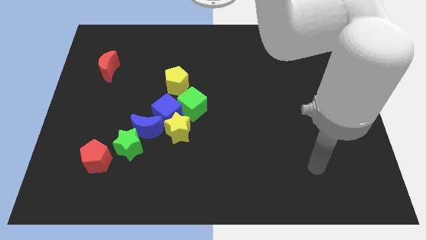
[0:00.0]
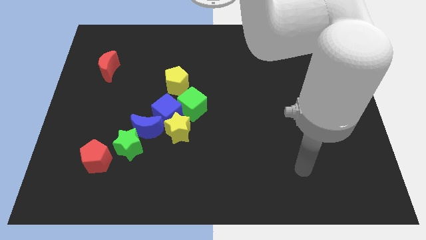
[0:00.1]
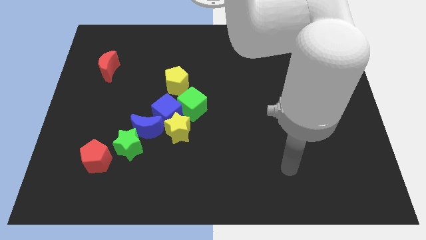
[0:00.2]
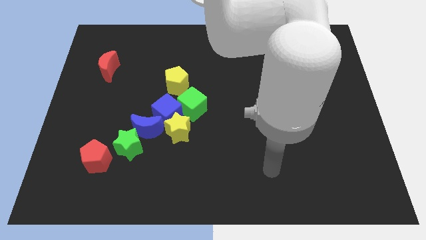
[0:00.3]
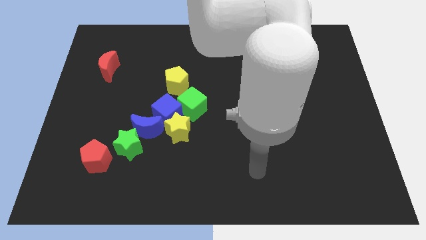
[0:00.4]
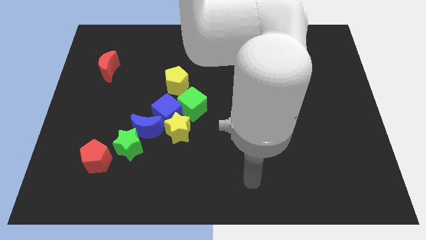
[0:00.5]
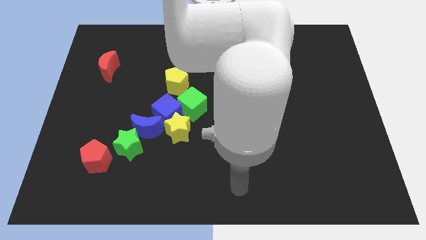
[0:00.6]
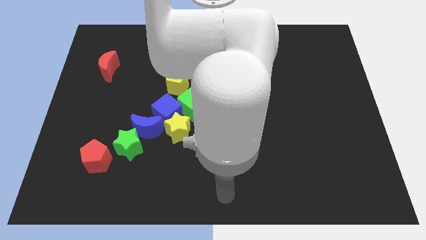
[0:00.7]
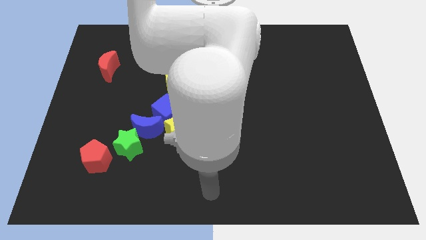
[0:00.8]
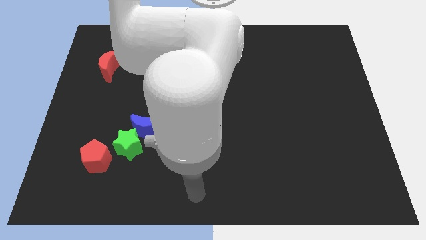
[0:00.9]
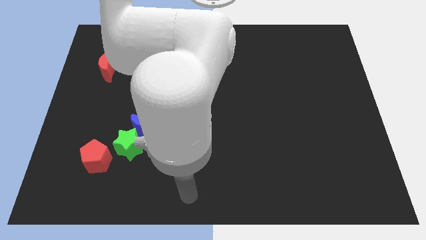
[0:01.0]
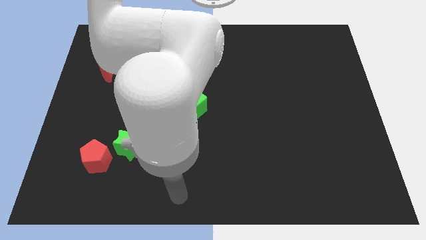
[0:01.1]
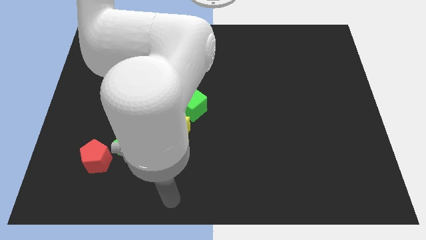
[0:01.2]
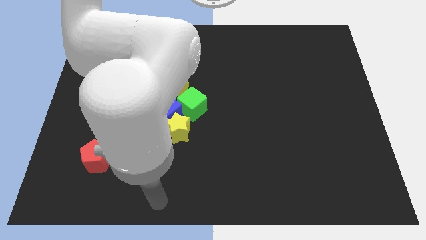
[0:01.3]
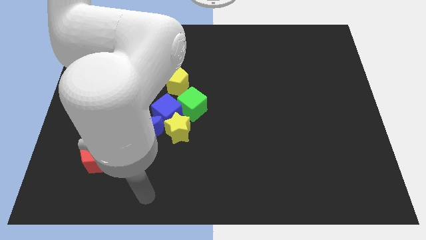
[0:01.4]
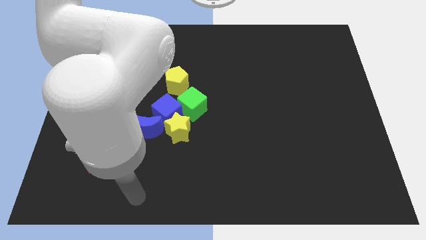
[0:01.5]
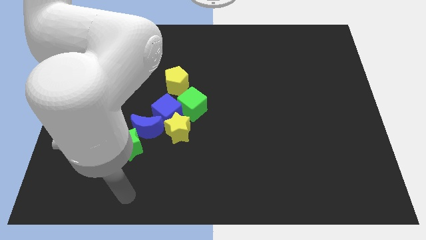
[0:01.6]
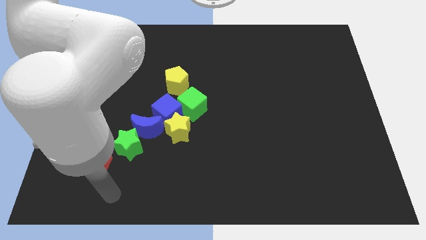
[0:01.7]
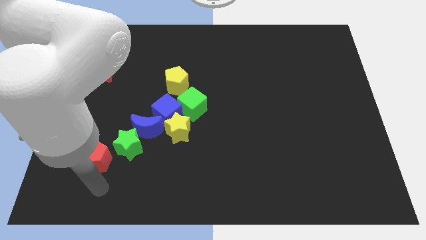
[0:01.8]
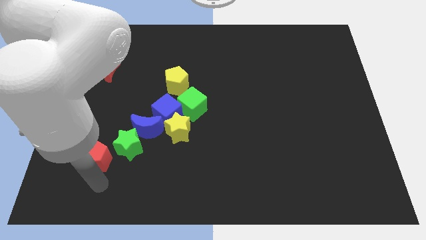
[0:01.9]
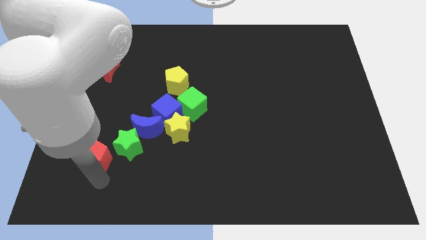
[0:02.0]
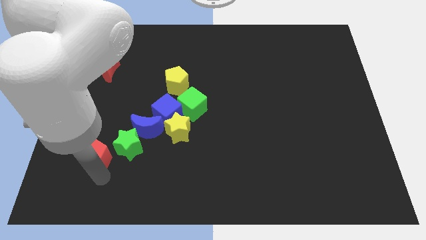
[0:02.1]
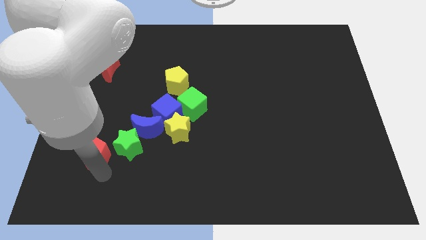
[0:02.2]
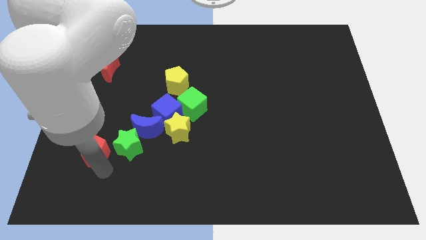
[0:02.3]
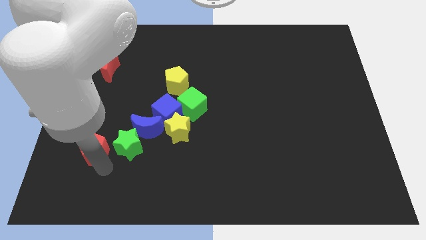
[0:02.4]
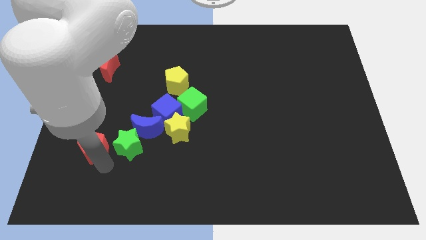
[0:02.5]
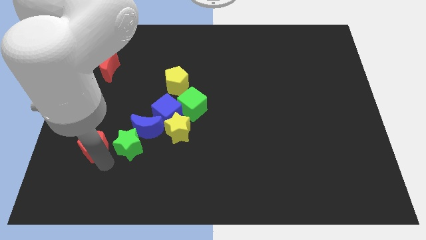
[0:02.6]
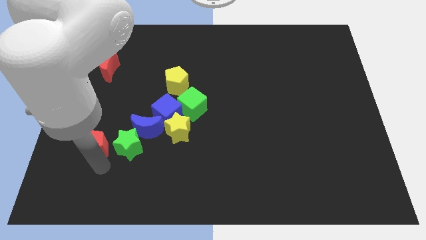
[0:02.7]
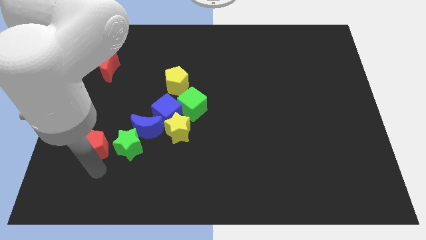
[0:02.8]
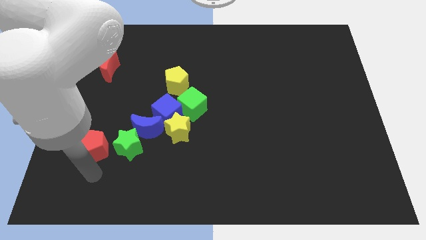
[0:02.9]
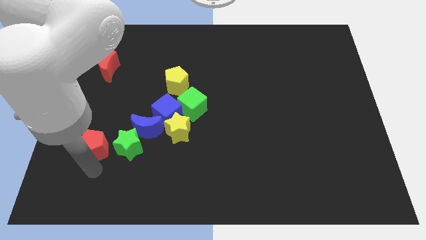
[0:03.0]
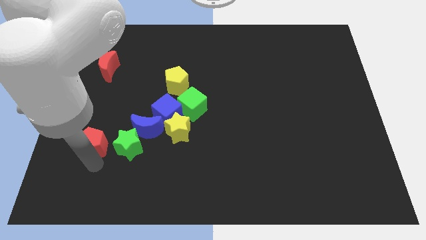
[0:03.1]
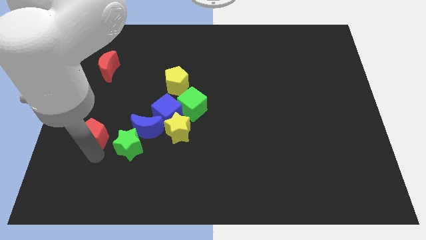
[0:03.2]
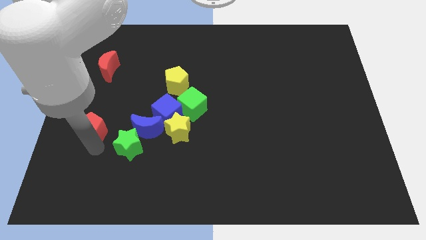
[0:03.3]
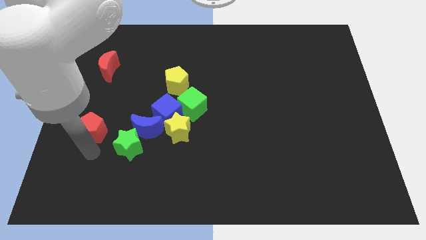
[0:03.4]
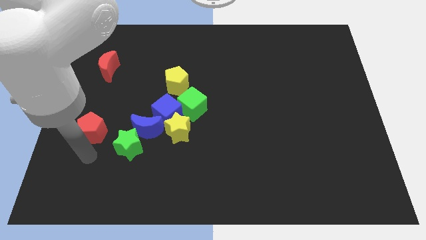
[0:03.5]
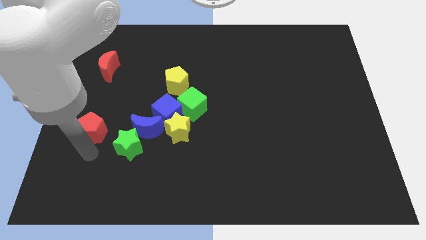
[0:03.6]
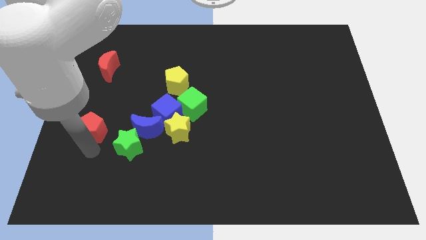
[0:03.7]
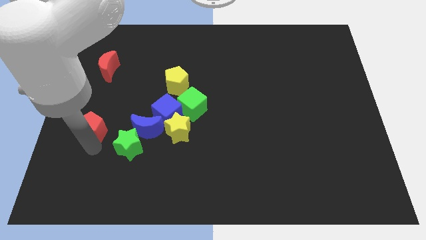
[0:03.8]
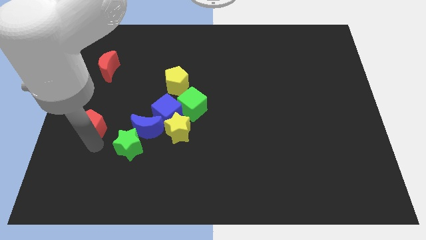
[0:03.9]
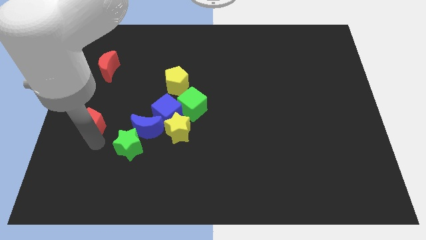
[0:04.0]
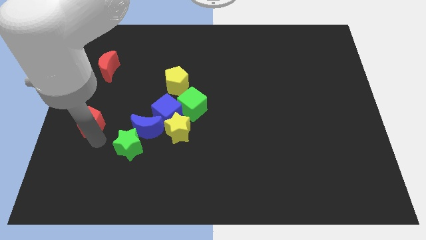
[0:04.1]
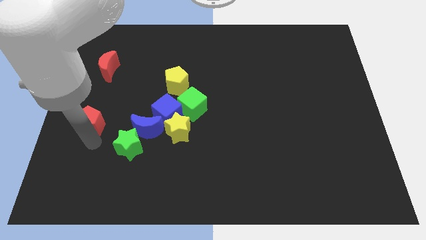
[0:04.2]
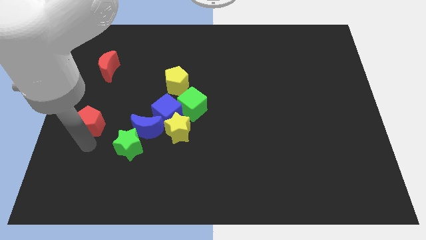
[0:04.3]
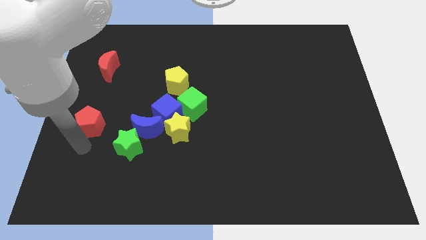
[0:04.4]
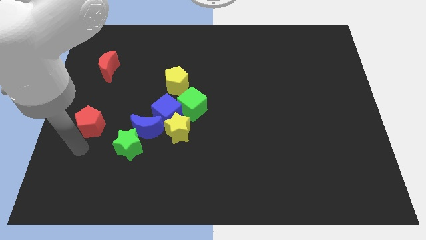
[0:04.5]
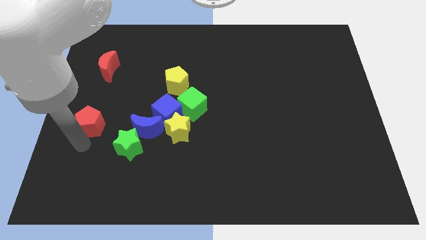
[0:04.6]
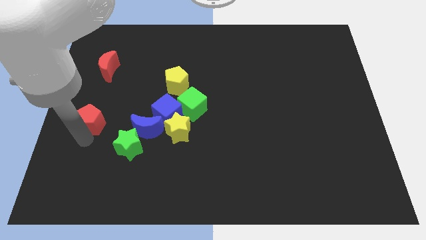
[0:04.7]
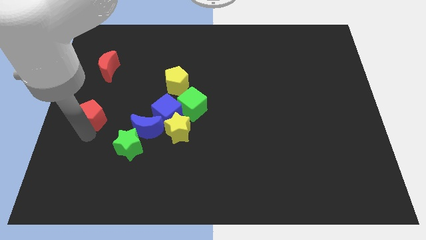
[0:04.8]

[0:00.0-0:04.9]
push the red pentagon below the red moon

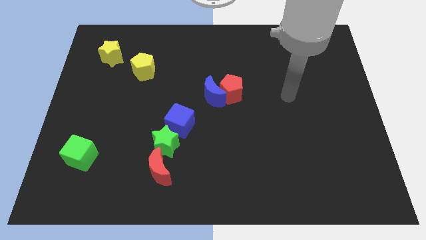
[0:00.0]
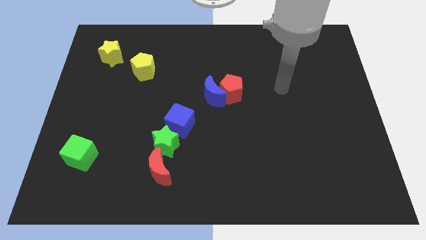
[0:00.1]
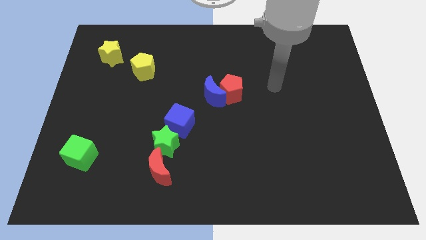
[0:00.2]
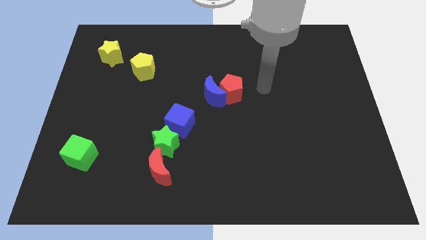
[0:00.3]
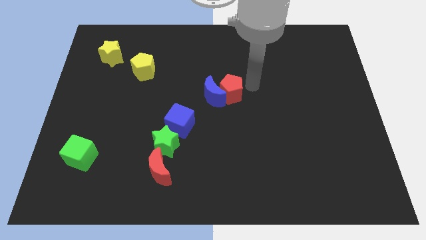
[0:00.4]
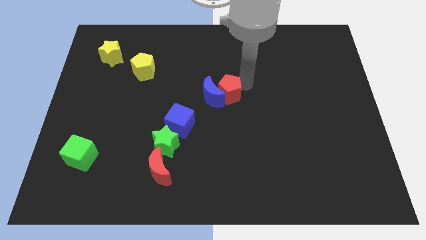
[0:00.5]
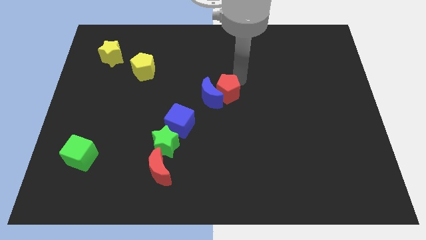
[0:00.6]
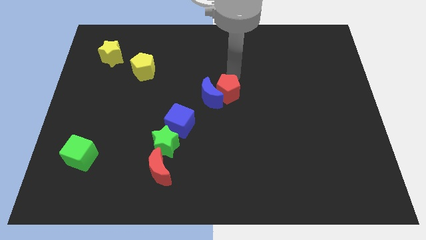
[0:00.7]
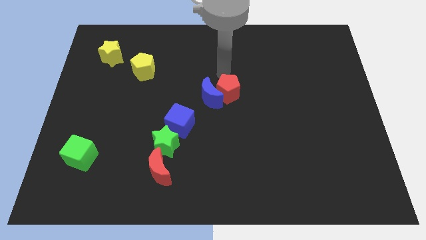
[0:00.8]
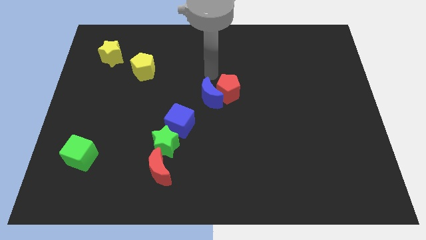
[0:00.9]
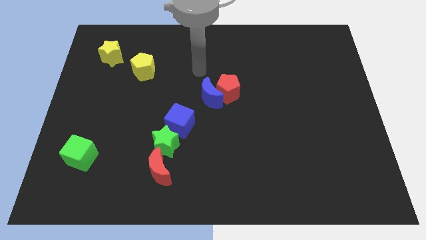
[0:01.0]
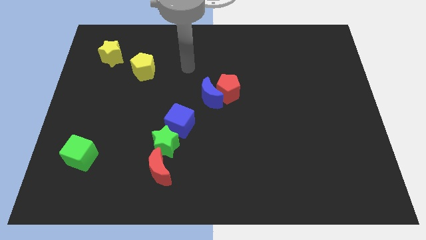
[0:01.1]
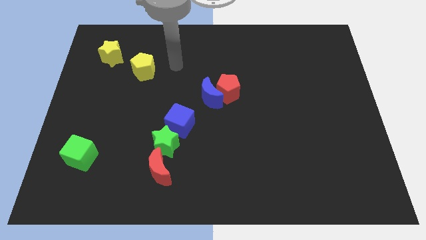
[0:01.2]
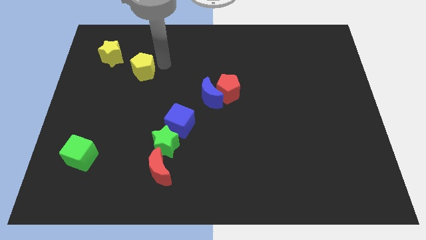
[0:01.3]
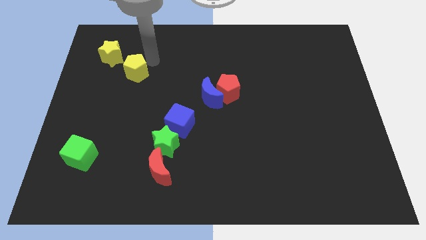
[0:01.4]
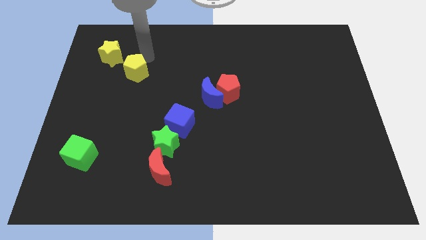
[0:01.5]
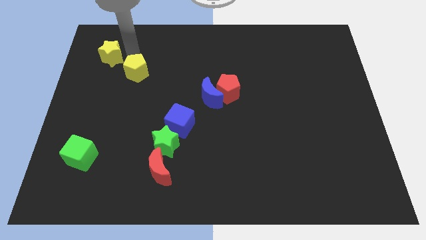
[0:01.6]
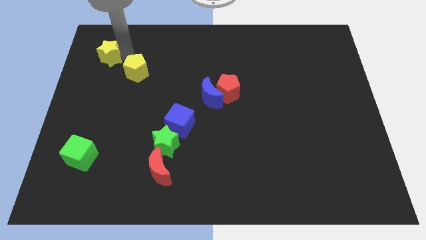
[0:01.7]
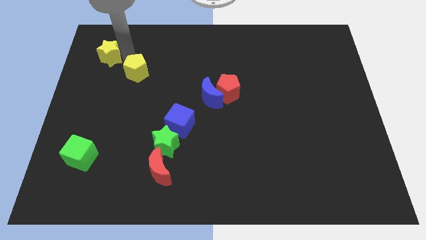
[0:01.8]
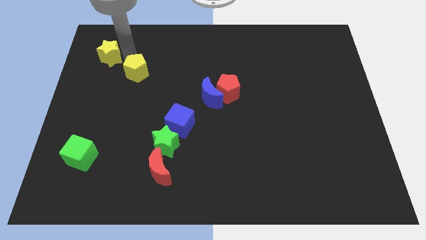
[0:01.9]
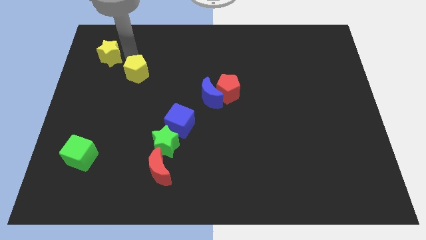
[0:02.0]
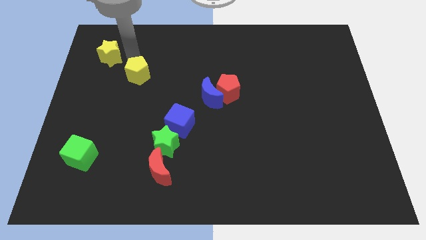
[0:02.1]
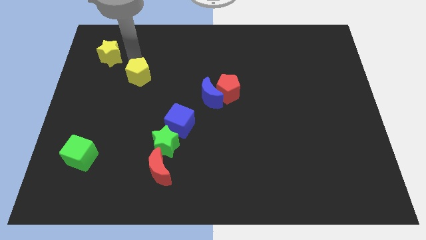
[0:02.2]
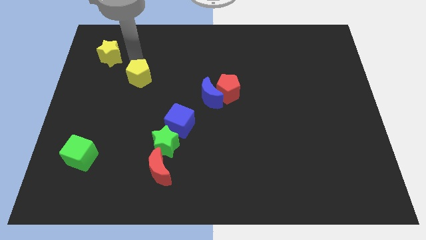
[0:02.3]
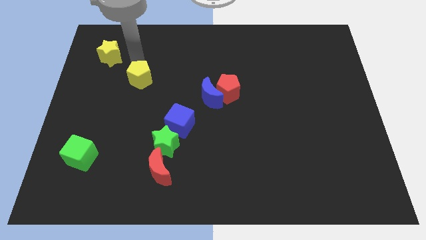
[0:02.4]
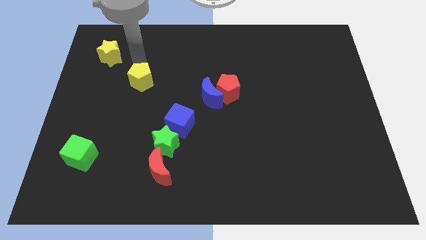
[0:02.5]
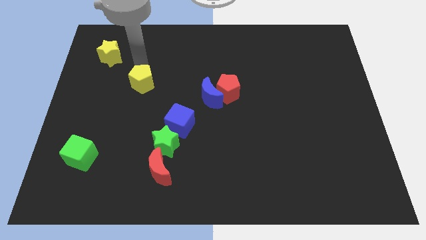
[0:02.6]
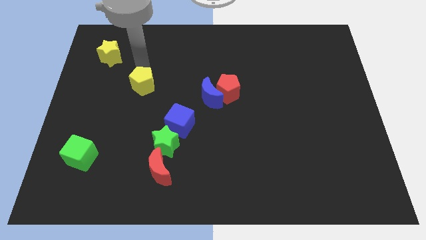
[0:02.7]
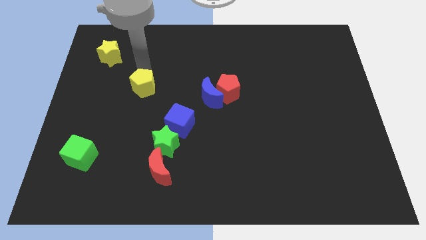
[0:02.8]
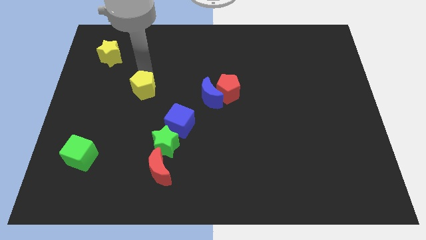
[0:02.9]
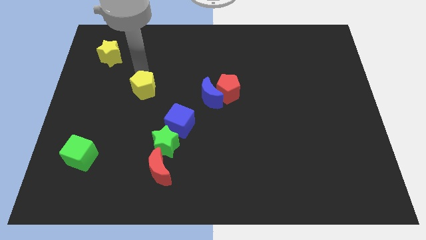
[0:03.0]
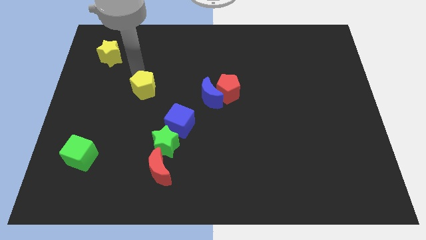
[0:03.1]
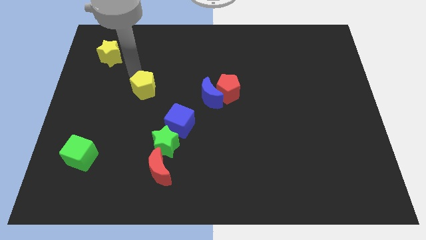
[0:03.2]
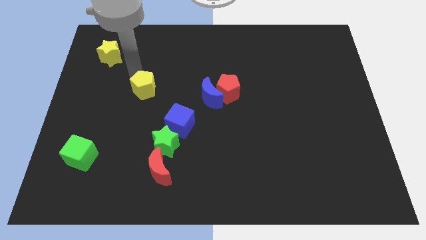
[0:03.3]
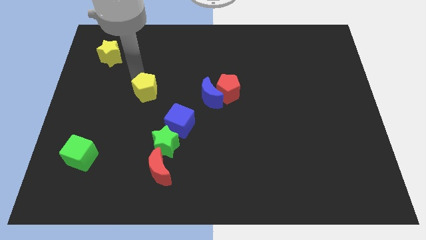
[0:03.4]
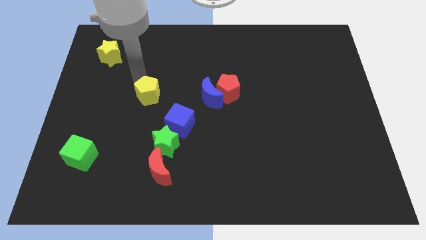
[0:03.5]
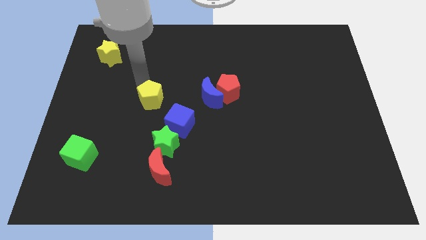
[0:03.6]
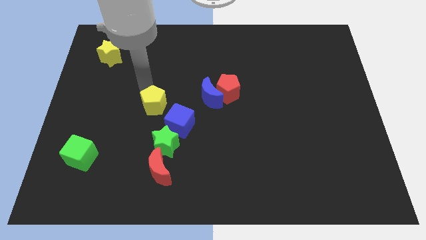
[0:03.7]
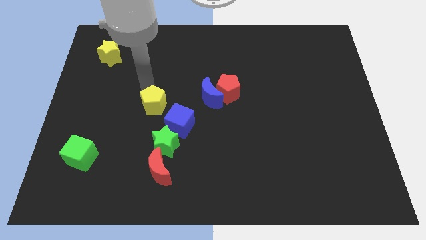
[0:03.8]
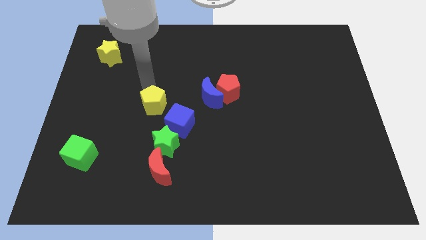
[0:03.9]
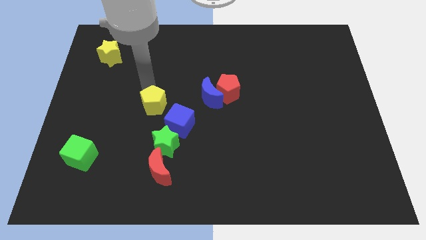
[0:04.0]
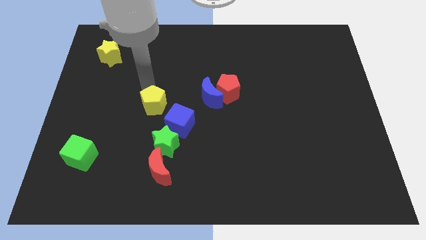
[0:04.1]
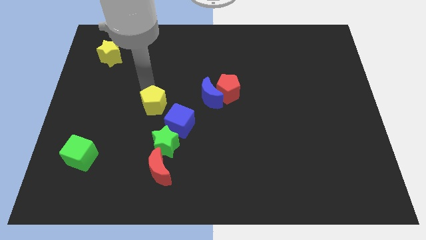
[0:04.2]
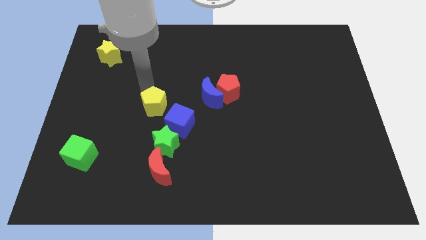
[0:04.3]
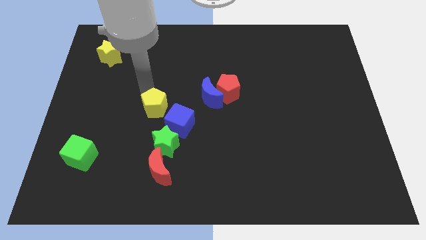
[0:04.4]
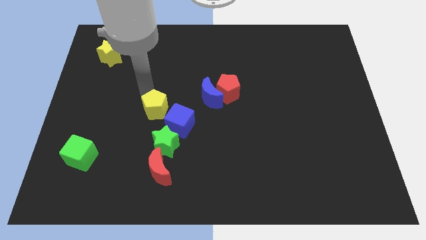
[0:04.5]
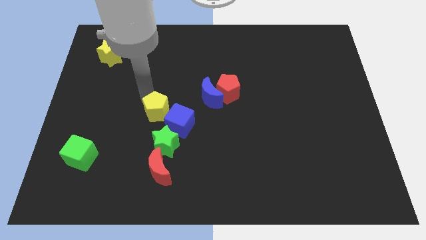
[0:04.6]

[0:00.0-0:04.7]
move the yellow pentagon to the top of the red moon
